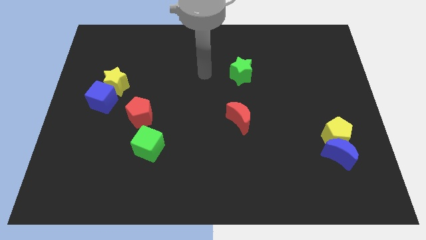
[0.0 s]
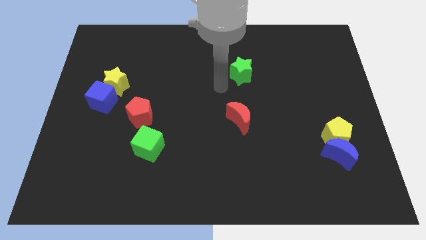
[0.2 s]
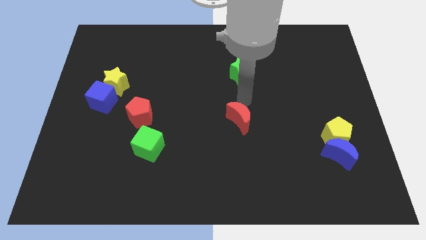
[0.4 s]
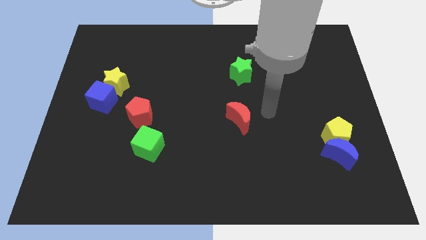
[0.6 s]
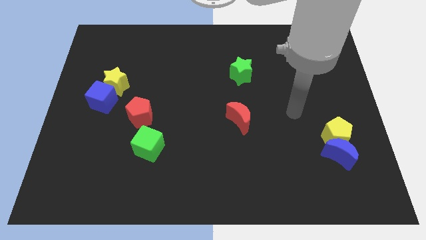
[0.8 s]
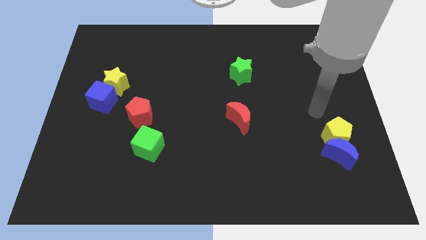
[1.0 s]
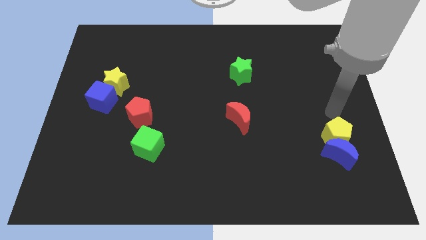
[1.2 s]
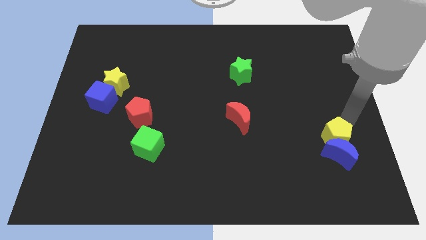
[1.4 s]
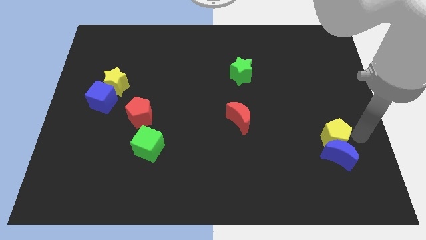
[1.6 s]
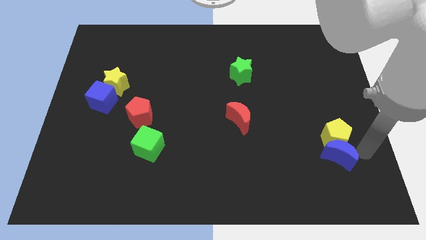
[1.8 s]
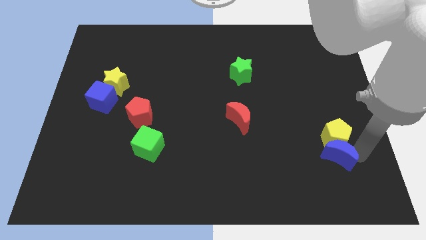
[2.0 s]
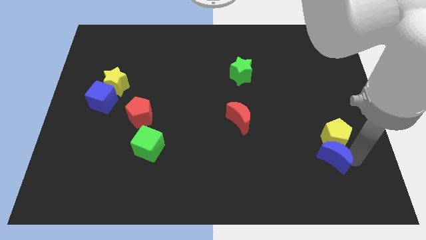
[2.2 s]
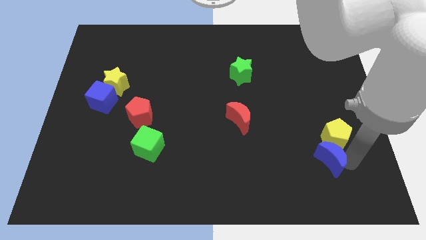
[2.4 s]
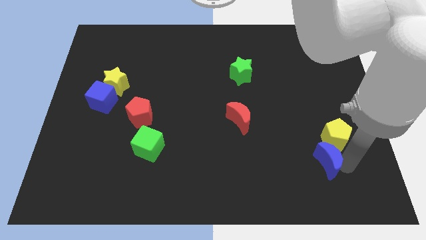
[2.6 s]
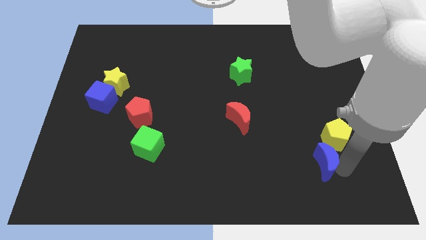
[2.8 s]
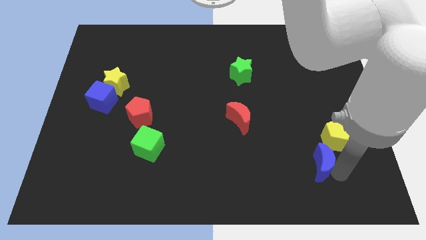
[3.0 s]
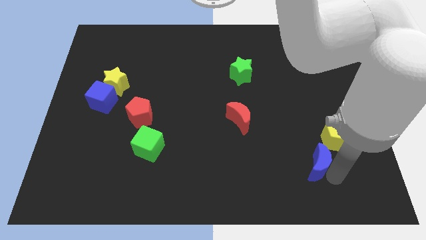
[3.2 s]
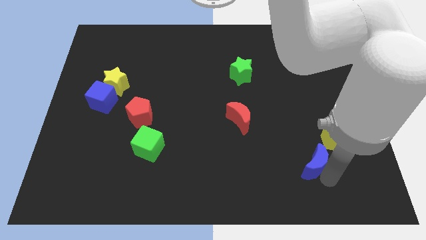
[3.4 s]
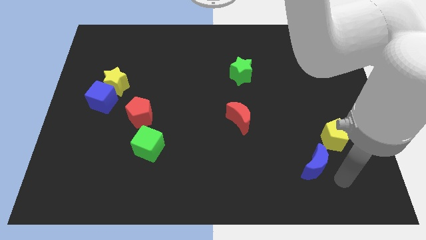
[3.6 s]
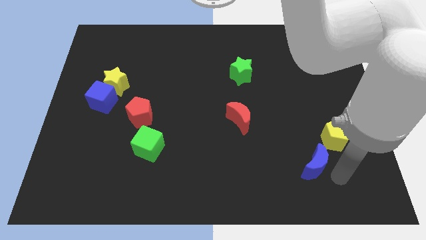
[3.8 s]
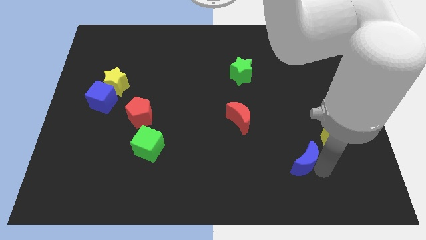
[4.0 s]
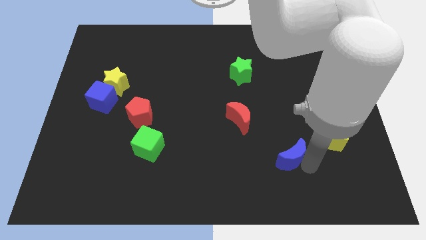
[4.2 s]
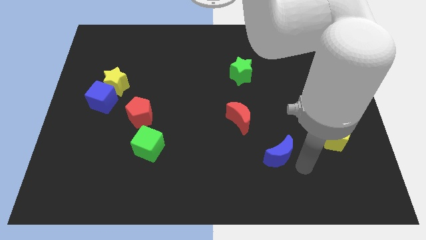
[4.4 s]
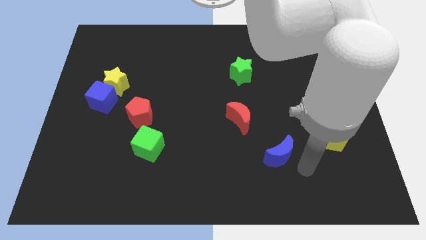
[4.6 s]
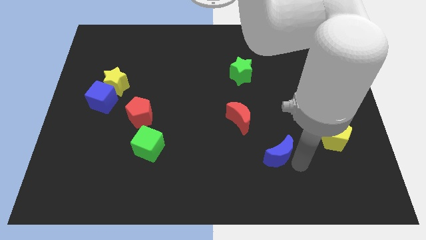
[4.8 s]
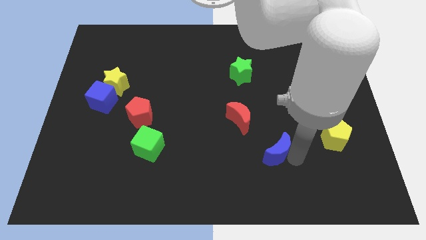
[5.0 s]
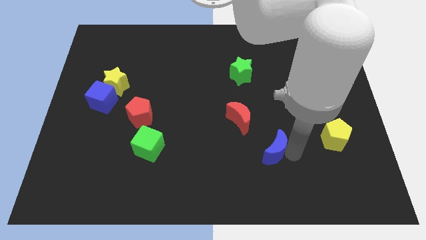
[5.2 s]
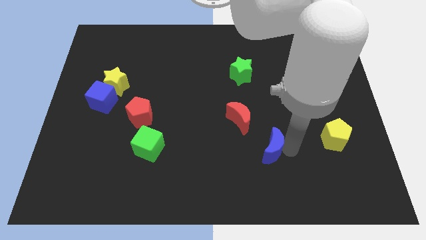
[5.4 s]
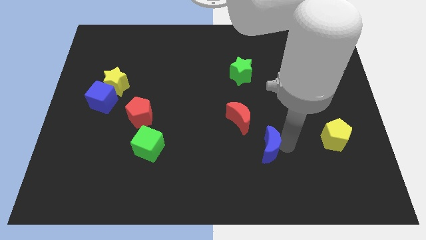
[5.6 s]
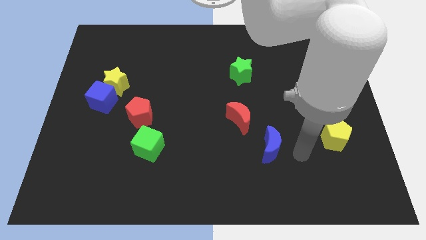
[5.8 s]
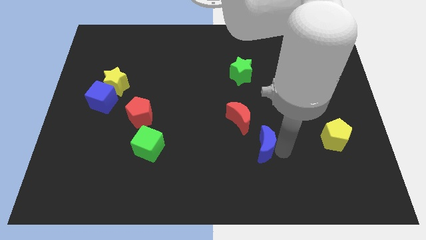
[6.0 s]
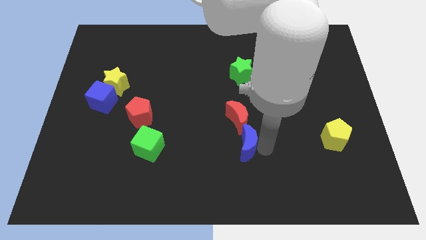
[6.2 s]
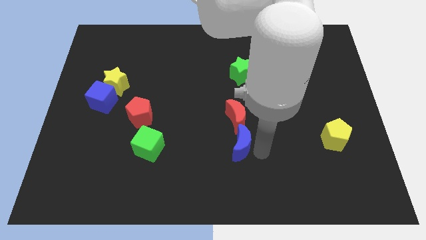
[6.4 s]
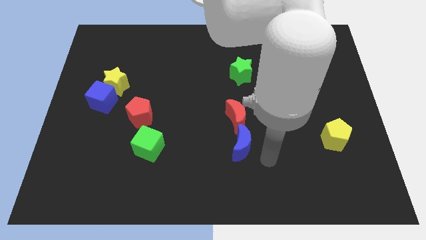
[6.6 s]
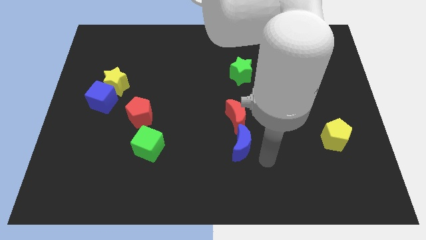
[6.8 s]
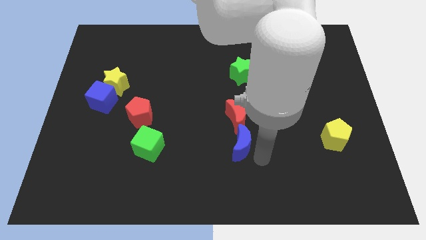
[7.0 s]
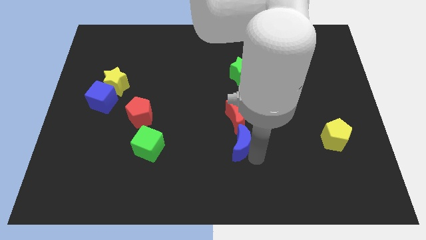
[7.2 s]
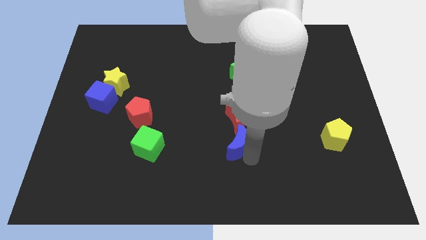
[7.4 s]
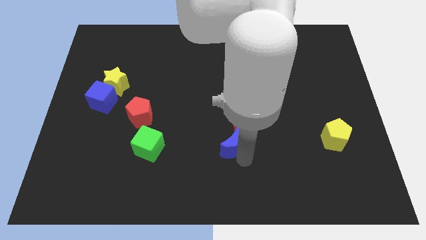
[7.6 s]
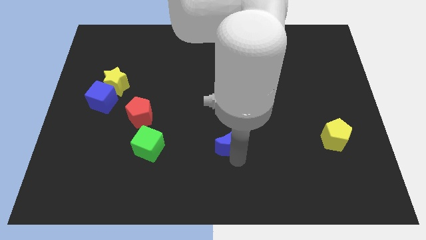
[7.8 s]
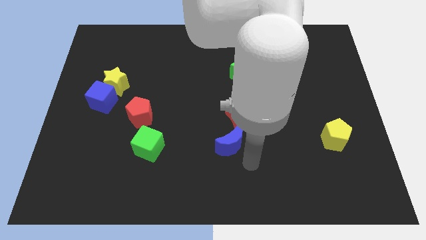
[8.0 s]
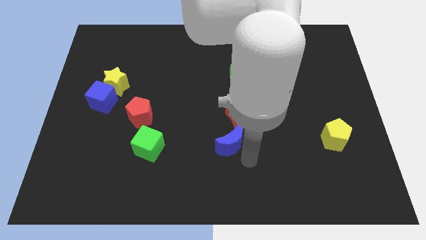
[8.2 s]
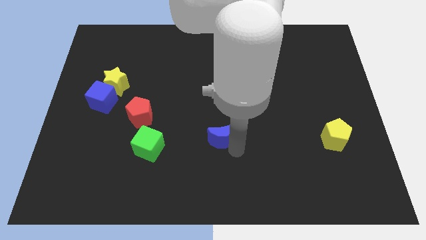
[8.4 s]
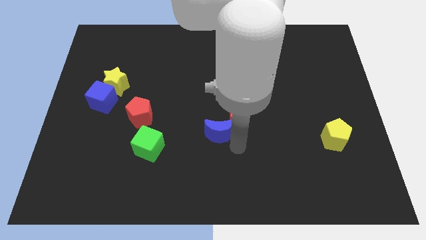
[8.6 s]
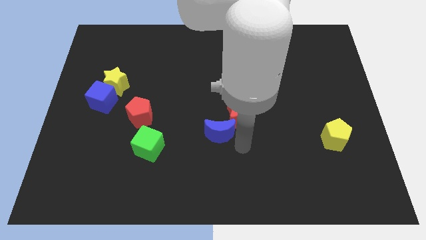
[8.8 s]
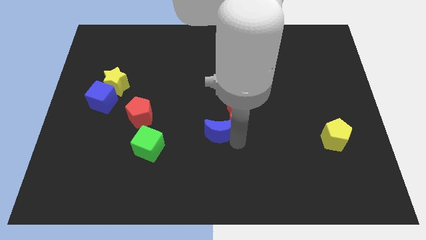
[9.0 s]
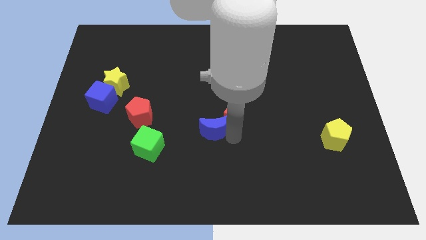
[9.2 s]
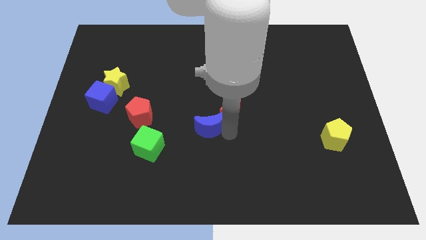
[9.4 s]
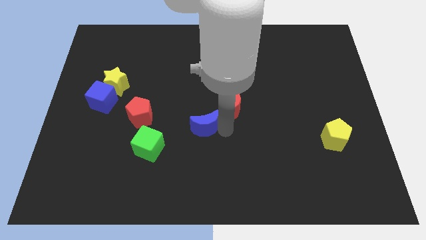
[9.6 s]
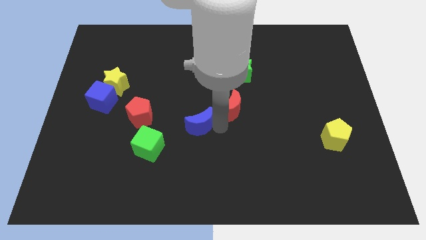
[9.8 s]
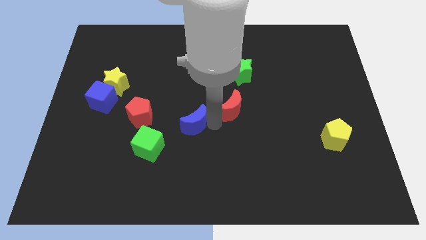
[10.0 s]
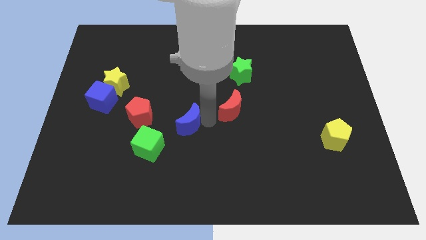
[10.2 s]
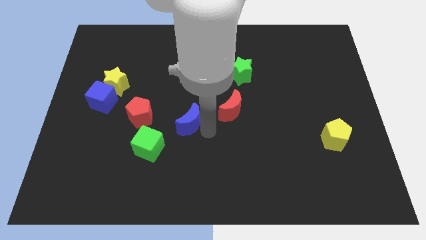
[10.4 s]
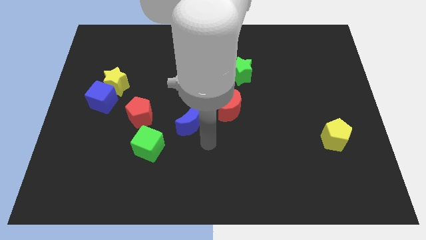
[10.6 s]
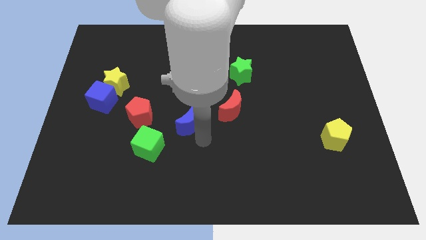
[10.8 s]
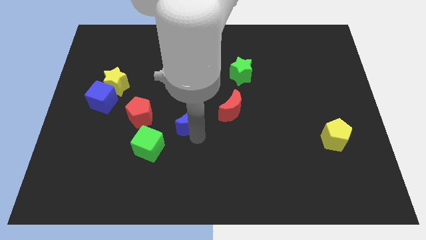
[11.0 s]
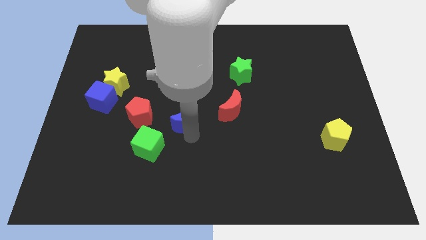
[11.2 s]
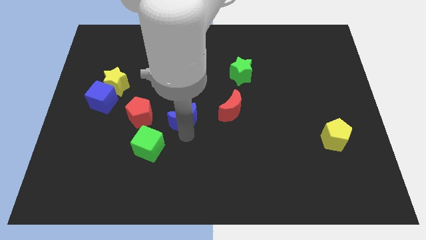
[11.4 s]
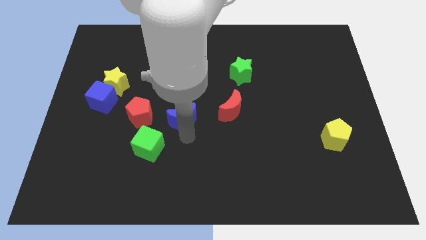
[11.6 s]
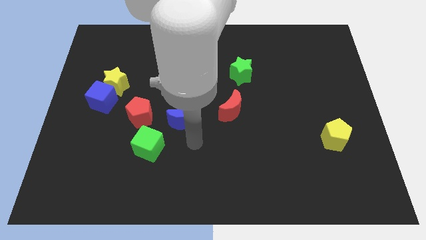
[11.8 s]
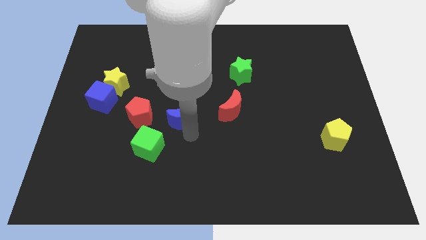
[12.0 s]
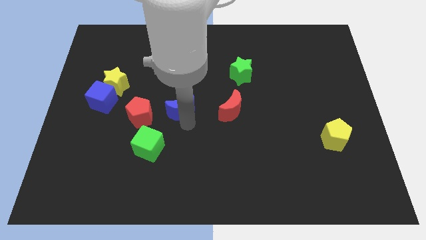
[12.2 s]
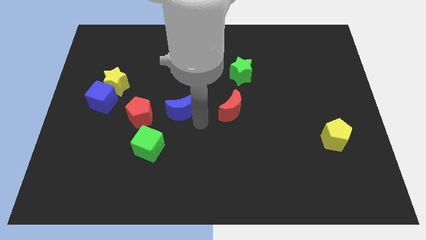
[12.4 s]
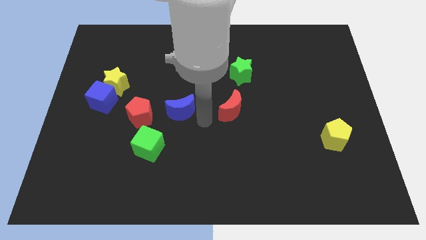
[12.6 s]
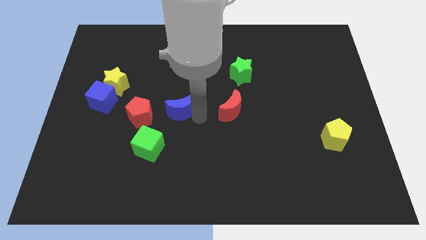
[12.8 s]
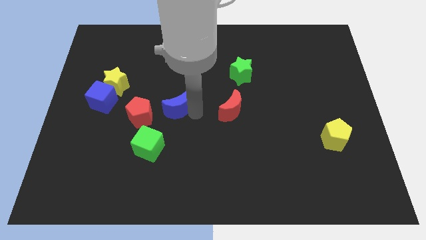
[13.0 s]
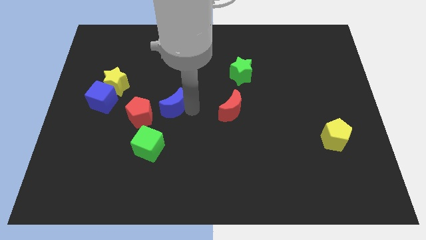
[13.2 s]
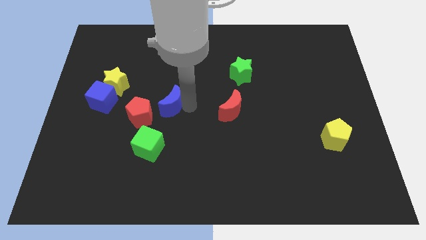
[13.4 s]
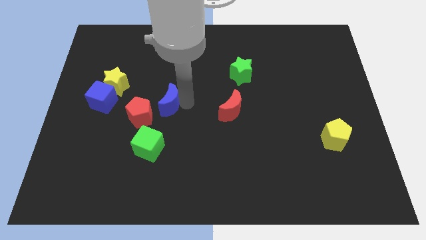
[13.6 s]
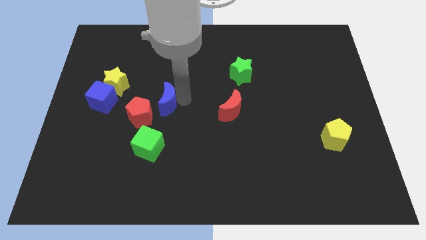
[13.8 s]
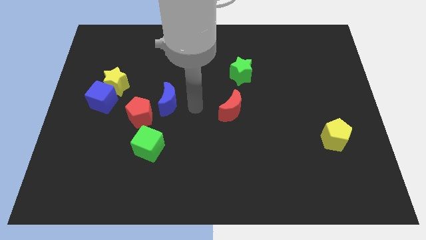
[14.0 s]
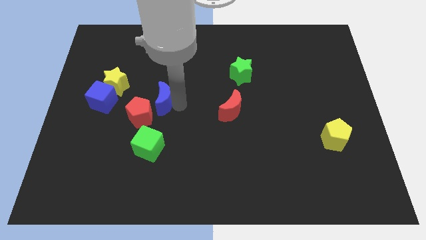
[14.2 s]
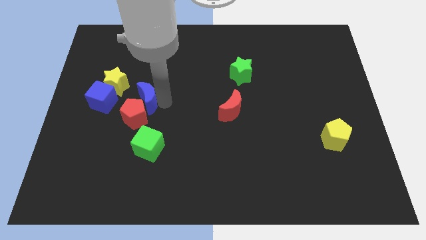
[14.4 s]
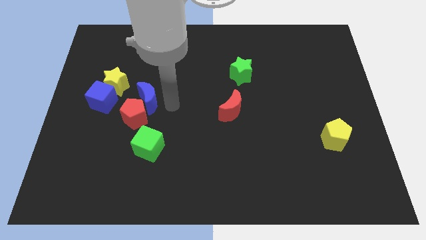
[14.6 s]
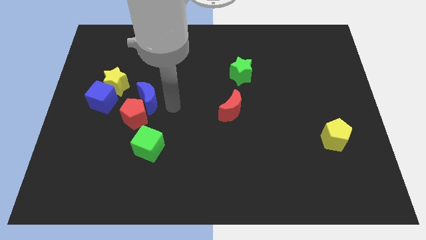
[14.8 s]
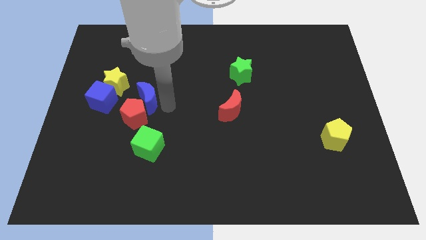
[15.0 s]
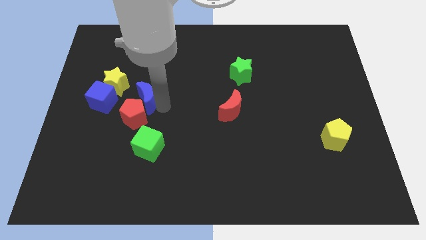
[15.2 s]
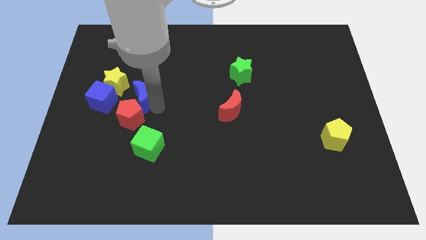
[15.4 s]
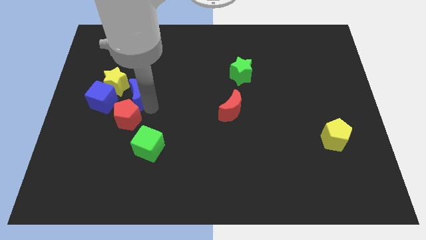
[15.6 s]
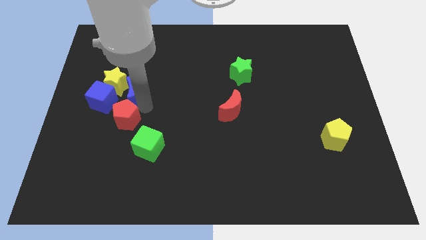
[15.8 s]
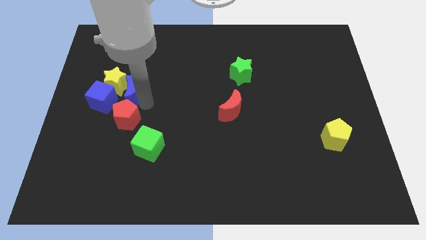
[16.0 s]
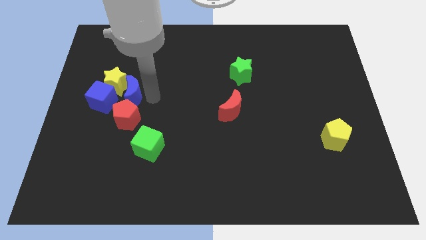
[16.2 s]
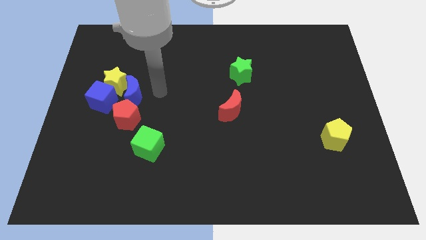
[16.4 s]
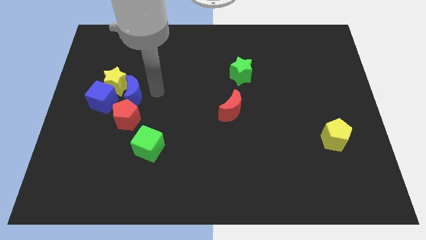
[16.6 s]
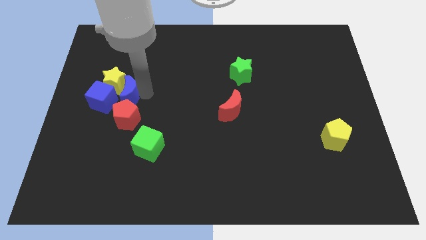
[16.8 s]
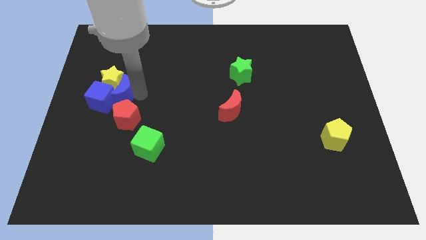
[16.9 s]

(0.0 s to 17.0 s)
move the blue moon next to the blue cube
